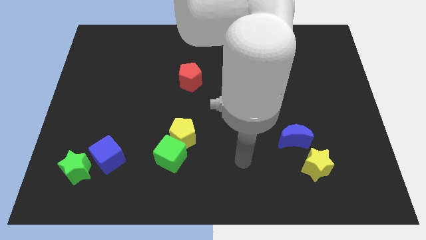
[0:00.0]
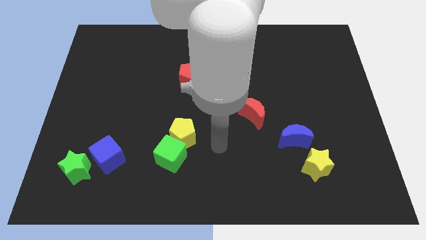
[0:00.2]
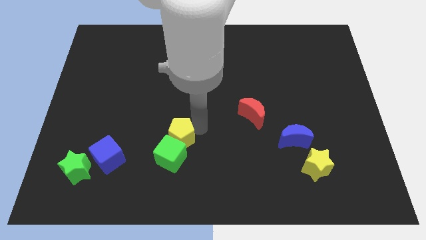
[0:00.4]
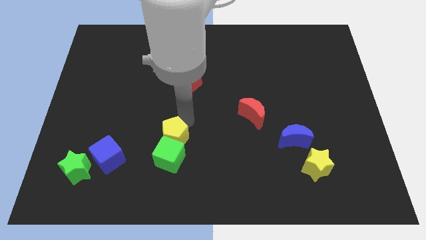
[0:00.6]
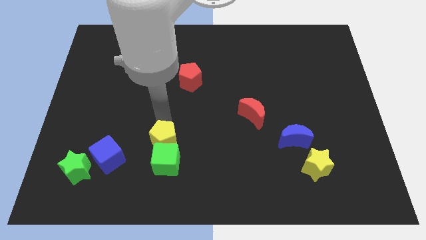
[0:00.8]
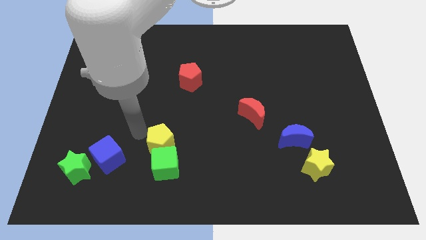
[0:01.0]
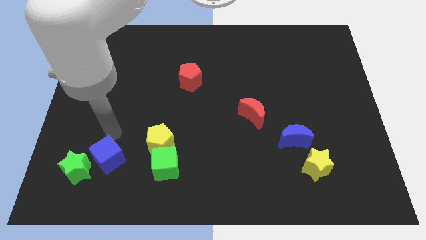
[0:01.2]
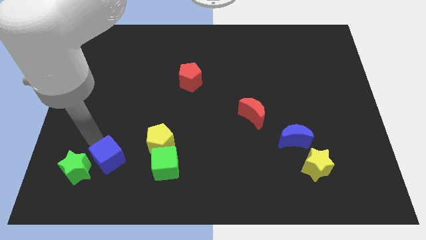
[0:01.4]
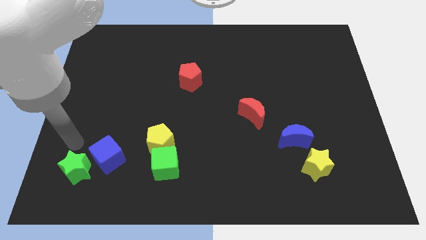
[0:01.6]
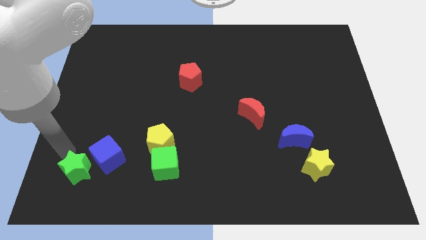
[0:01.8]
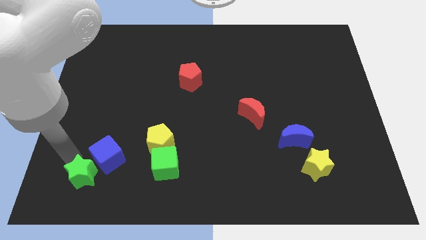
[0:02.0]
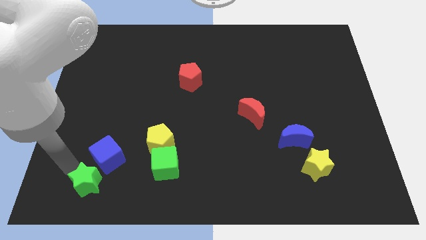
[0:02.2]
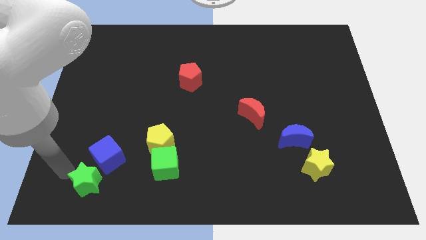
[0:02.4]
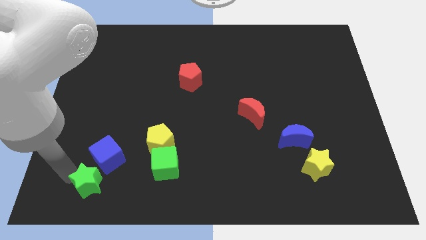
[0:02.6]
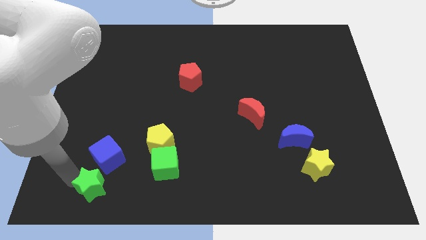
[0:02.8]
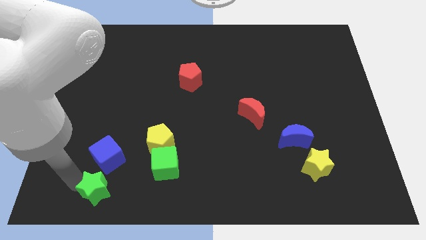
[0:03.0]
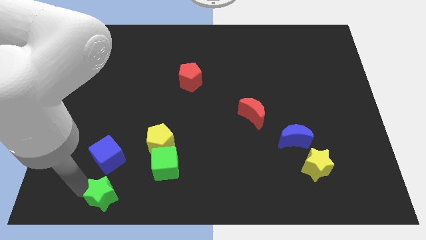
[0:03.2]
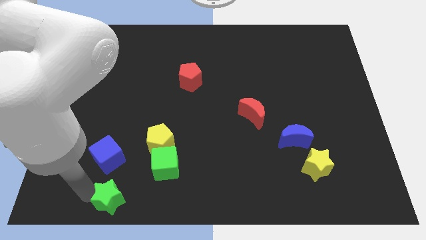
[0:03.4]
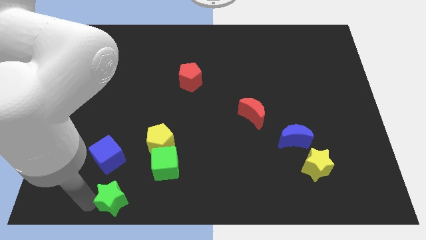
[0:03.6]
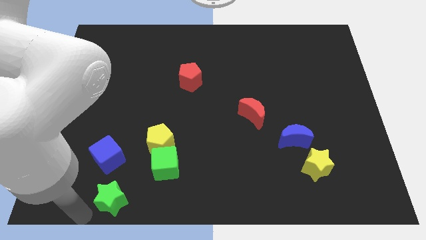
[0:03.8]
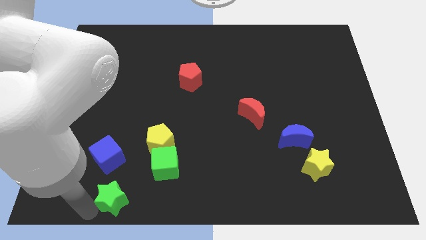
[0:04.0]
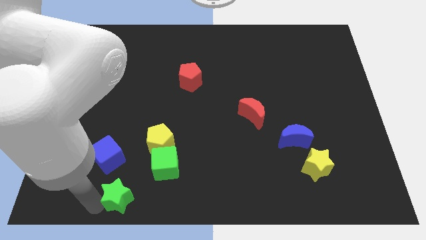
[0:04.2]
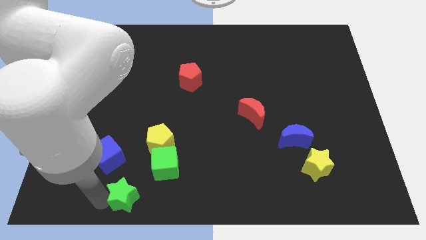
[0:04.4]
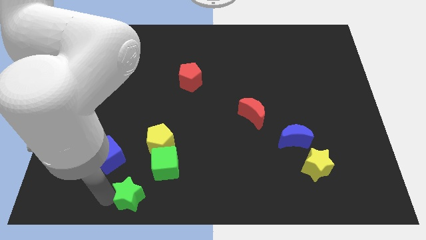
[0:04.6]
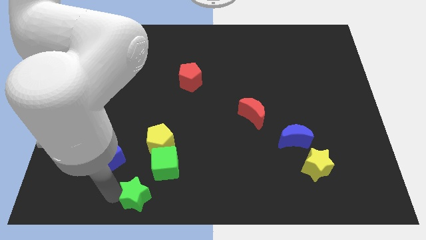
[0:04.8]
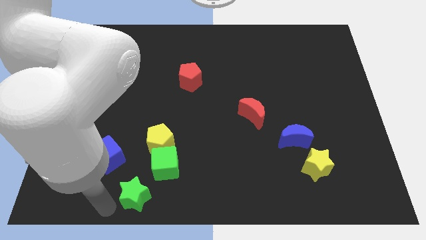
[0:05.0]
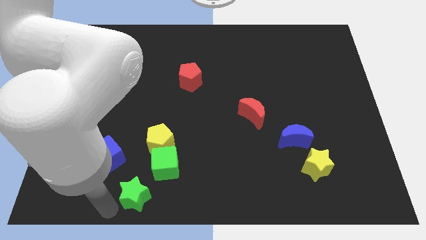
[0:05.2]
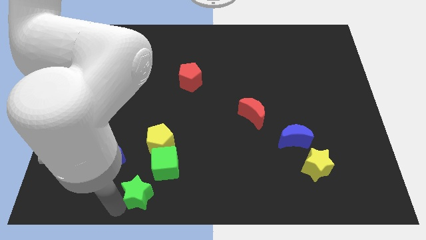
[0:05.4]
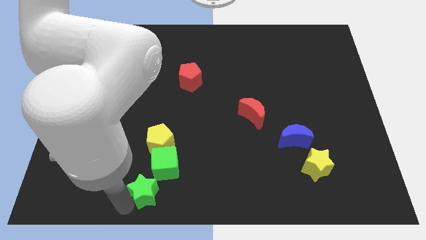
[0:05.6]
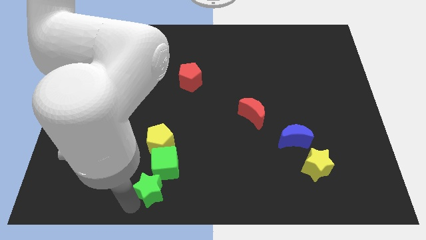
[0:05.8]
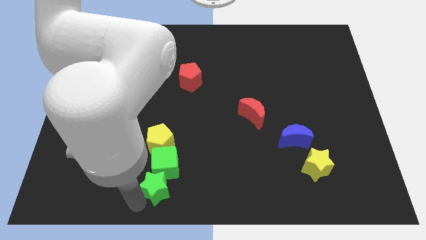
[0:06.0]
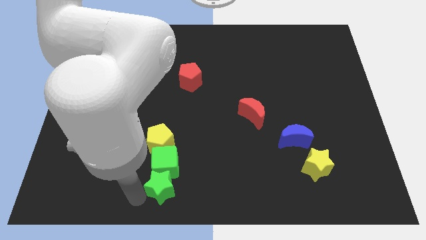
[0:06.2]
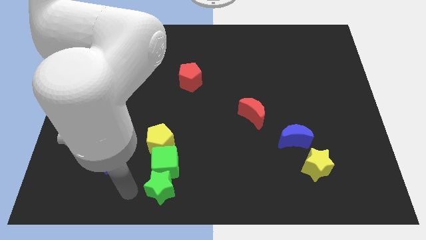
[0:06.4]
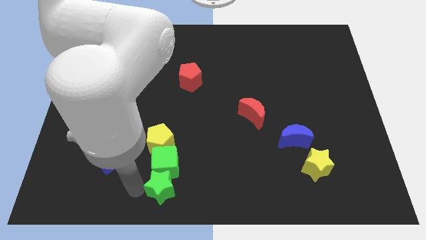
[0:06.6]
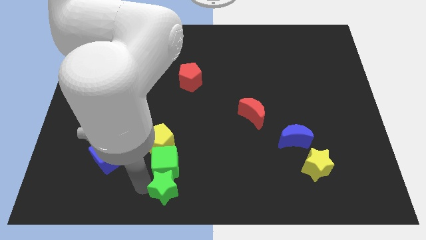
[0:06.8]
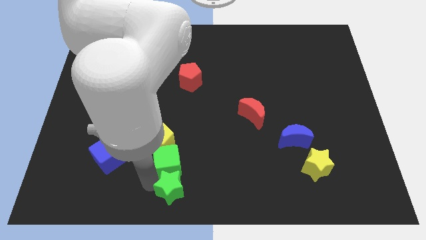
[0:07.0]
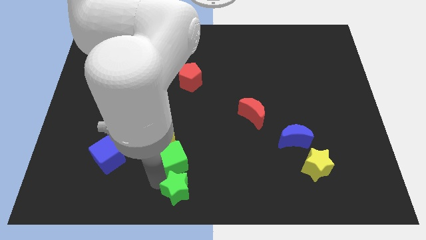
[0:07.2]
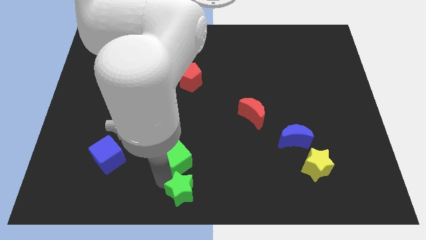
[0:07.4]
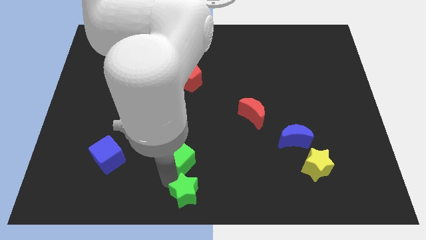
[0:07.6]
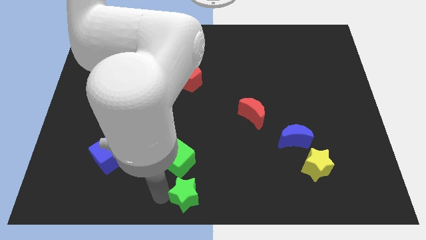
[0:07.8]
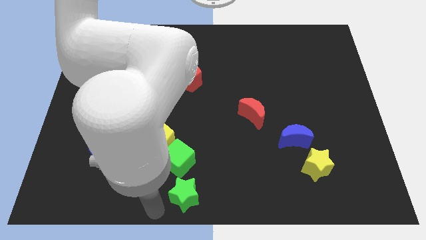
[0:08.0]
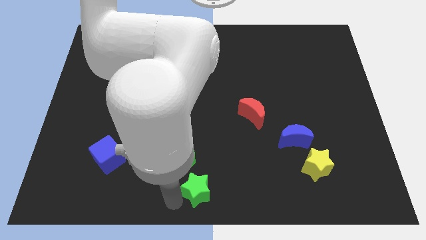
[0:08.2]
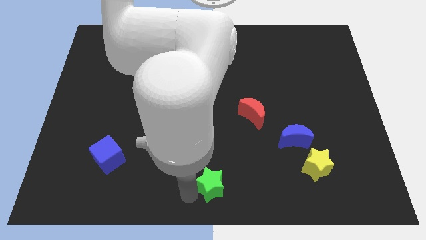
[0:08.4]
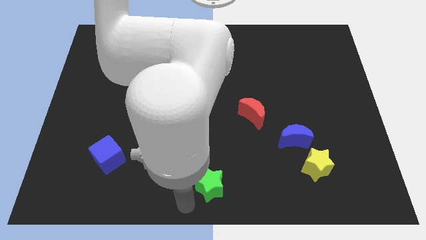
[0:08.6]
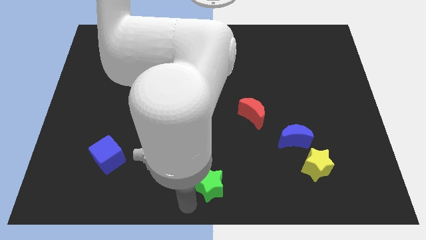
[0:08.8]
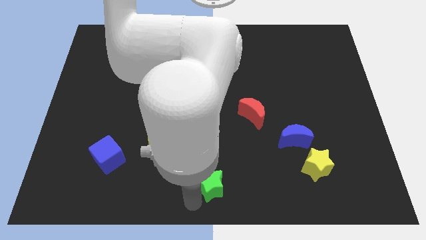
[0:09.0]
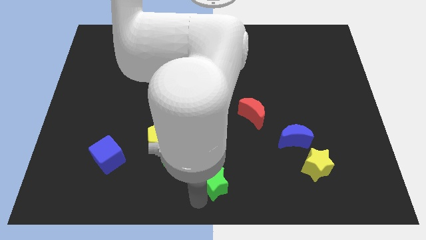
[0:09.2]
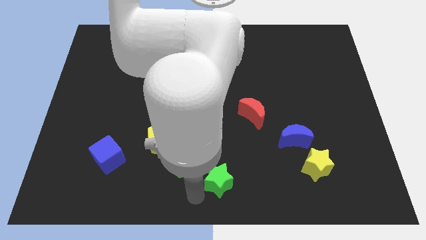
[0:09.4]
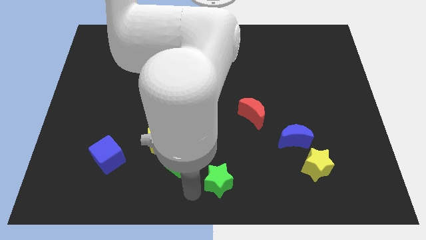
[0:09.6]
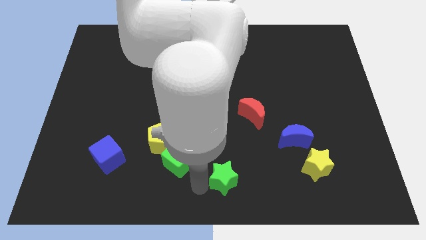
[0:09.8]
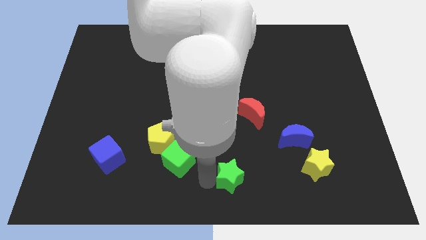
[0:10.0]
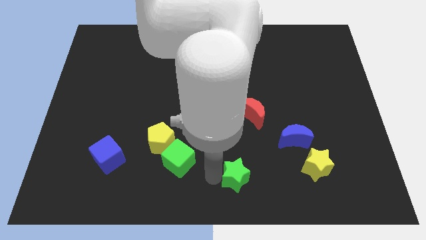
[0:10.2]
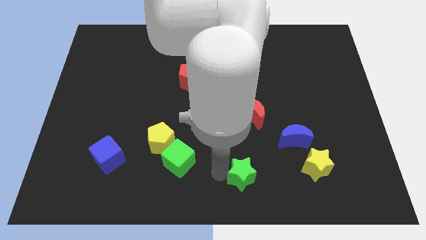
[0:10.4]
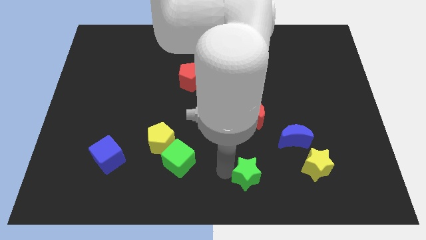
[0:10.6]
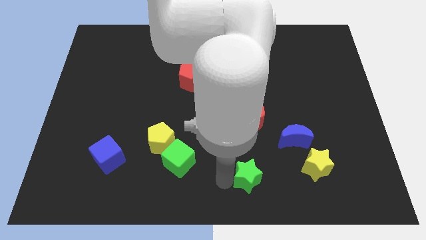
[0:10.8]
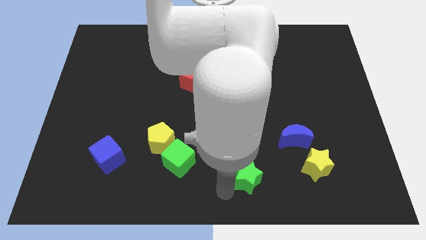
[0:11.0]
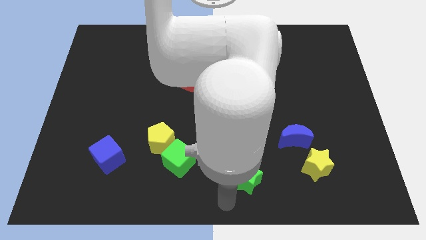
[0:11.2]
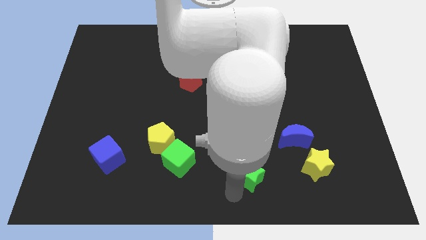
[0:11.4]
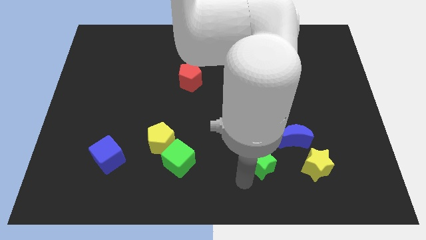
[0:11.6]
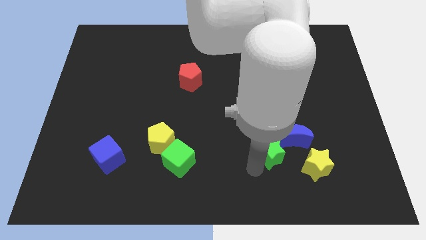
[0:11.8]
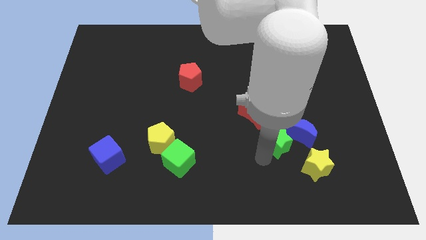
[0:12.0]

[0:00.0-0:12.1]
push the green star to the blue moon

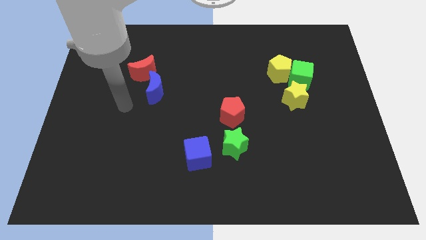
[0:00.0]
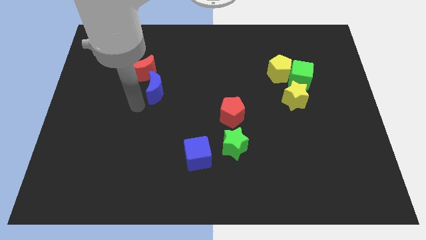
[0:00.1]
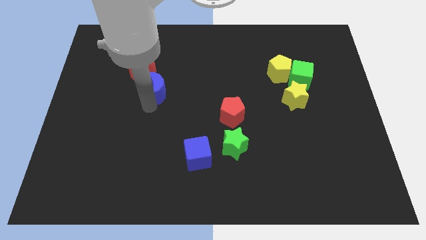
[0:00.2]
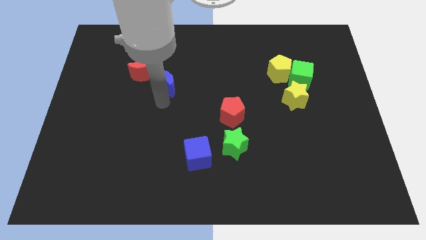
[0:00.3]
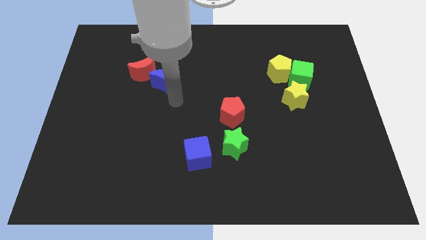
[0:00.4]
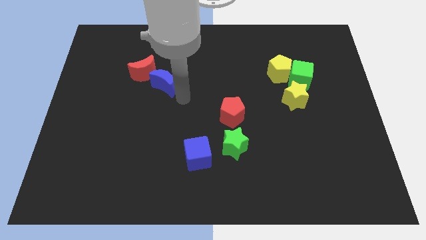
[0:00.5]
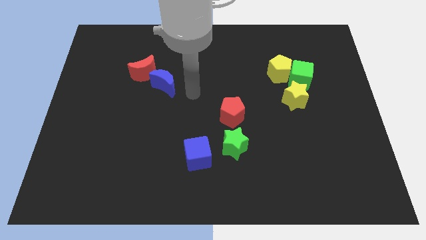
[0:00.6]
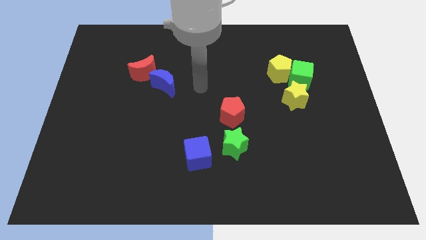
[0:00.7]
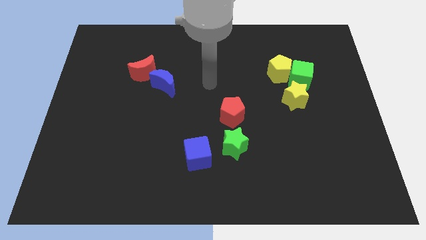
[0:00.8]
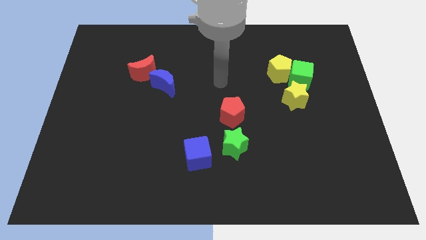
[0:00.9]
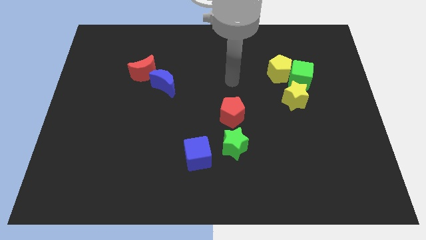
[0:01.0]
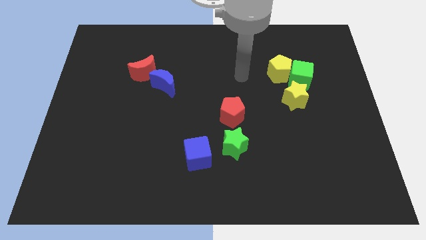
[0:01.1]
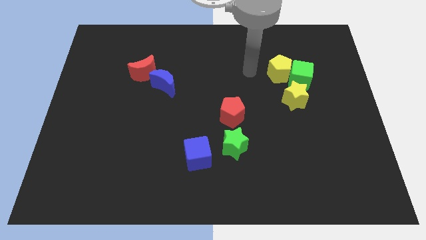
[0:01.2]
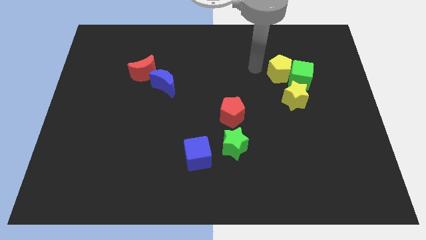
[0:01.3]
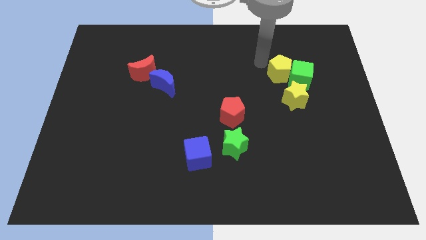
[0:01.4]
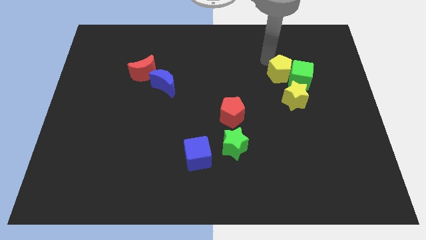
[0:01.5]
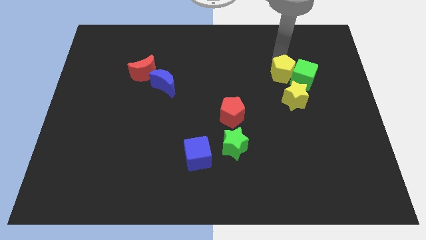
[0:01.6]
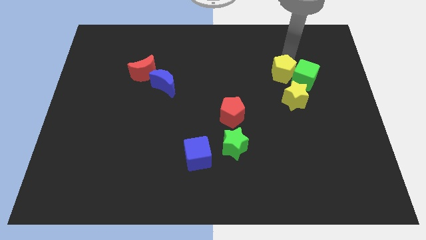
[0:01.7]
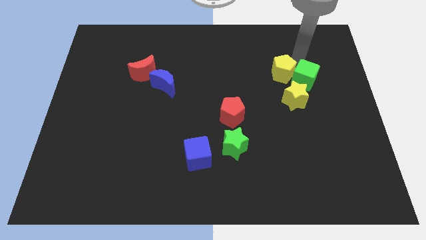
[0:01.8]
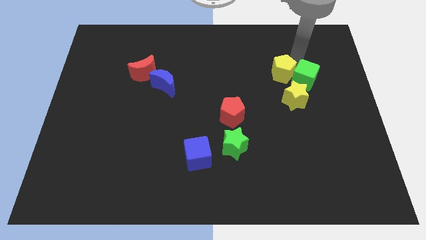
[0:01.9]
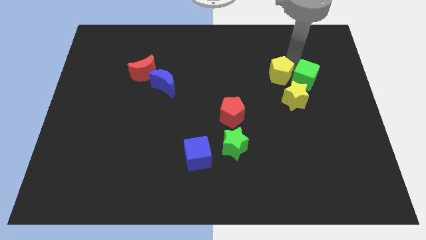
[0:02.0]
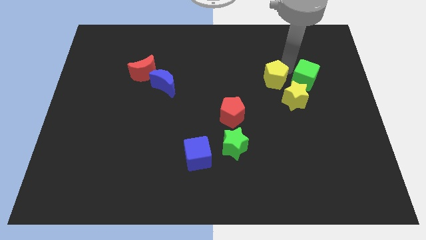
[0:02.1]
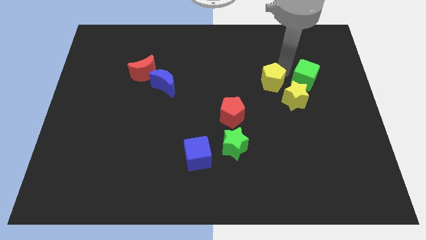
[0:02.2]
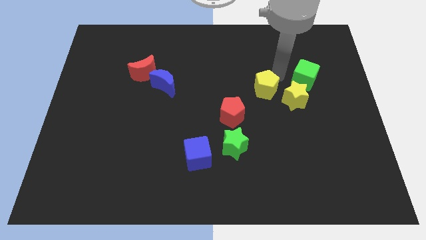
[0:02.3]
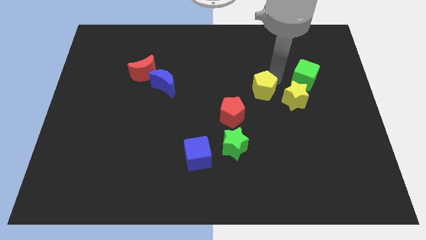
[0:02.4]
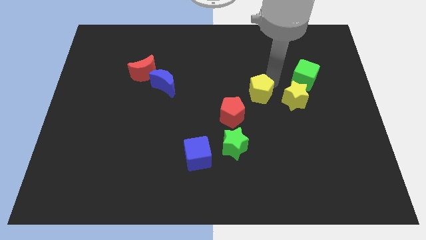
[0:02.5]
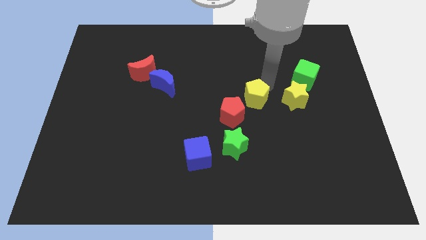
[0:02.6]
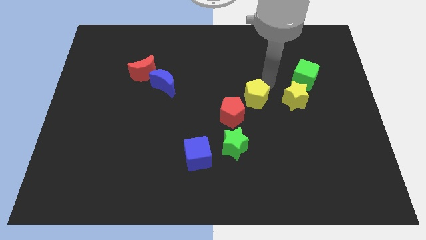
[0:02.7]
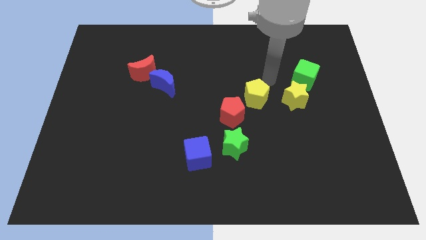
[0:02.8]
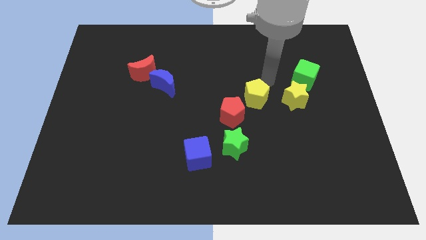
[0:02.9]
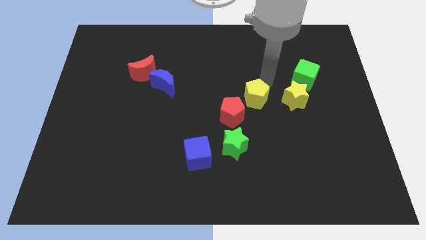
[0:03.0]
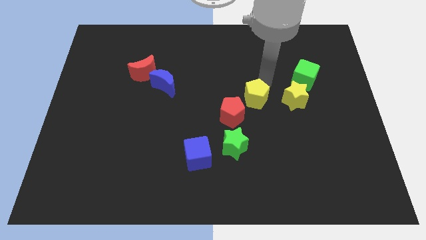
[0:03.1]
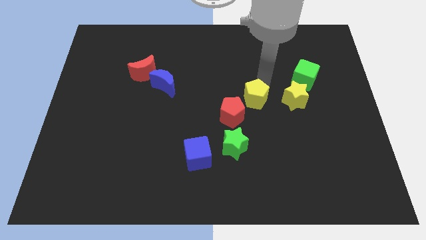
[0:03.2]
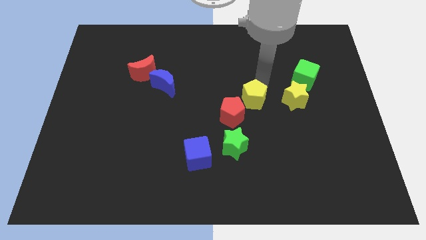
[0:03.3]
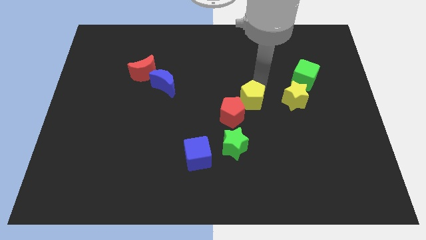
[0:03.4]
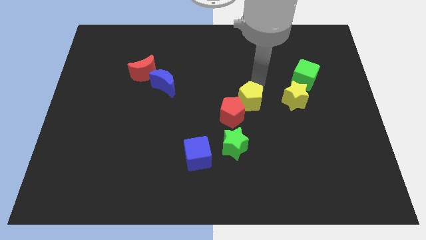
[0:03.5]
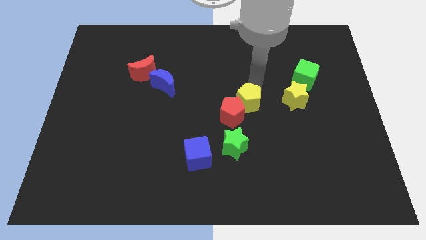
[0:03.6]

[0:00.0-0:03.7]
push the yellow pentagon to the red pentagon
